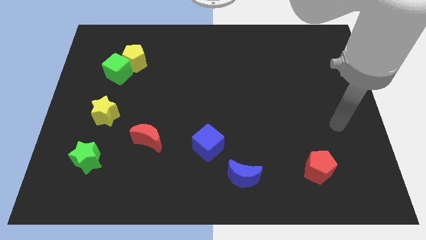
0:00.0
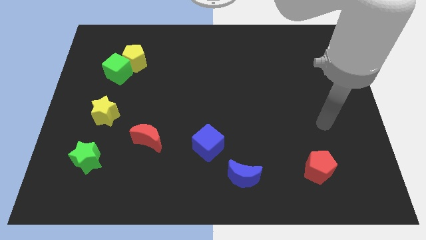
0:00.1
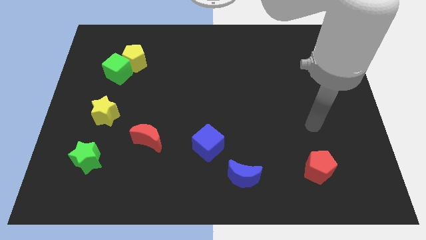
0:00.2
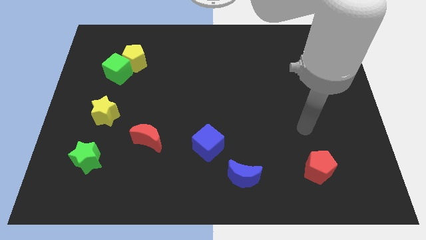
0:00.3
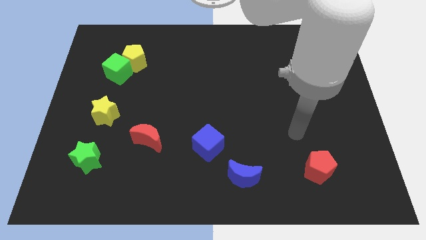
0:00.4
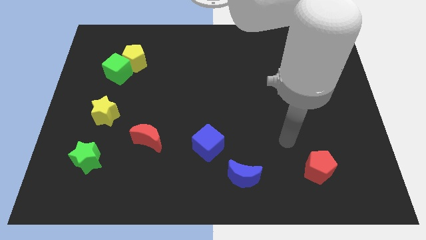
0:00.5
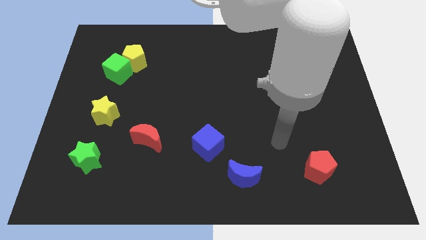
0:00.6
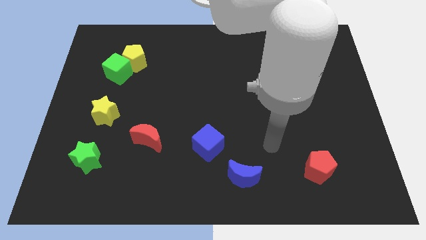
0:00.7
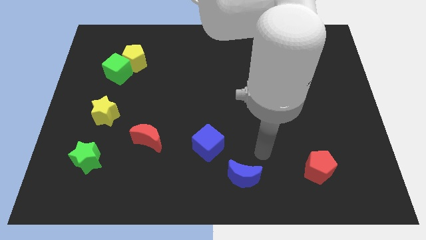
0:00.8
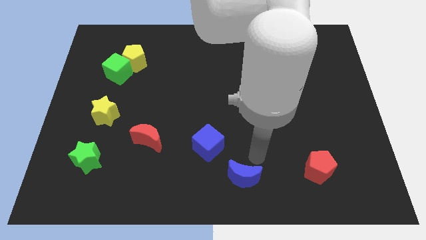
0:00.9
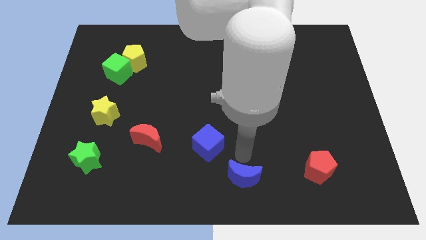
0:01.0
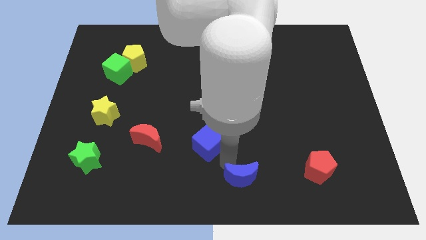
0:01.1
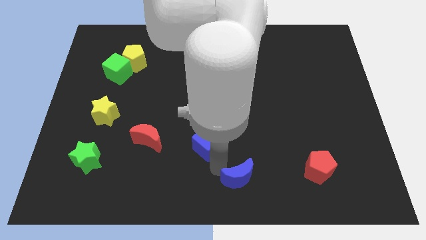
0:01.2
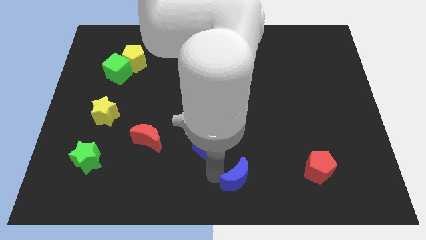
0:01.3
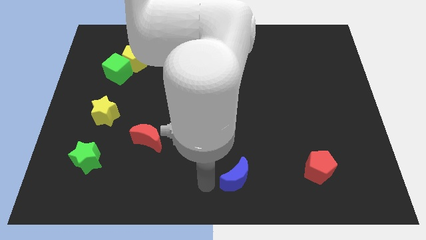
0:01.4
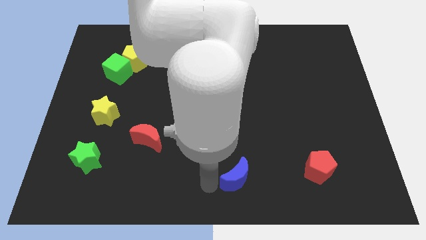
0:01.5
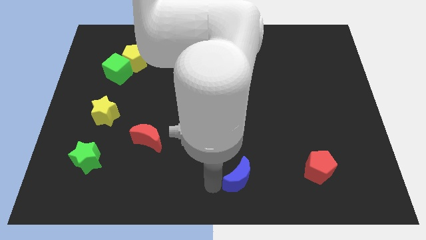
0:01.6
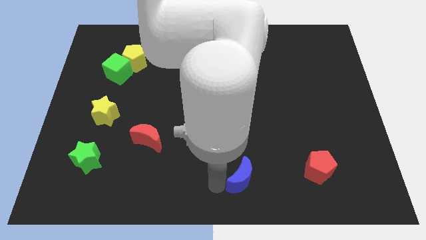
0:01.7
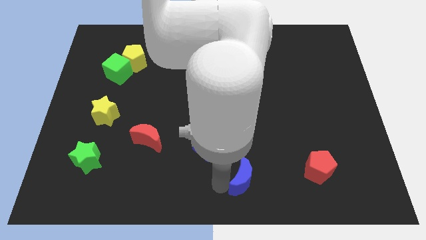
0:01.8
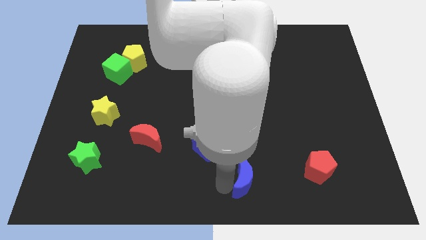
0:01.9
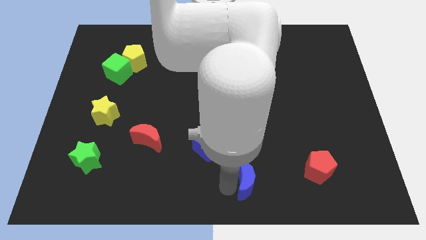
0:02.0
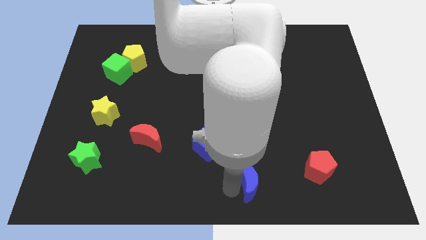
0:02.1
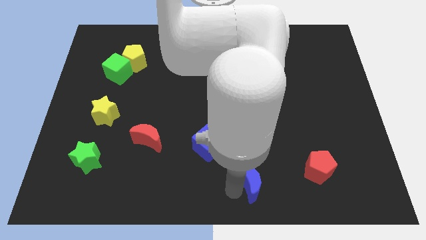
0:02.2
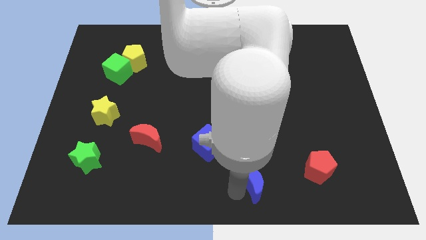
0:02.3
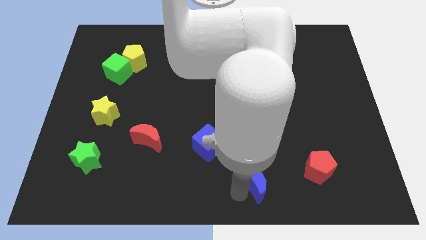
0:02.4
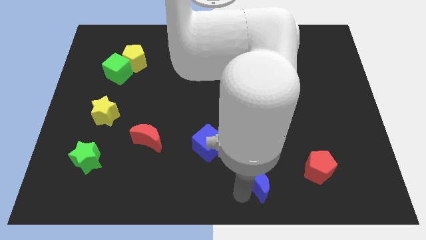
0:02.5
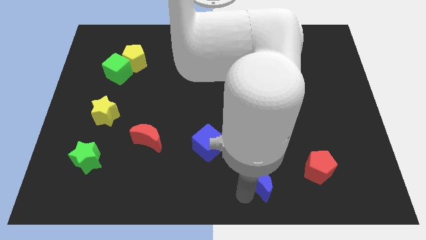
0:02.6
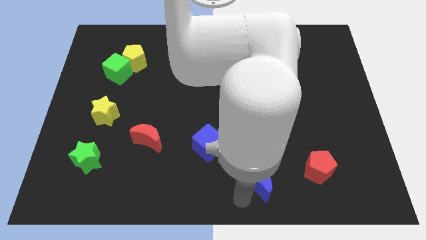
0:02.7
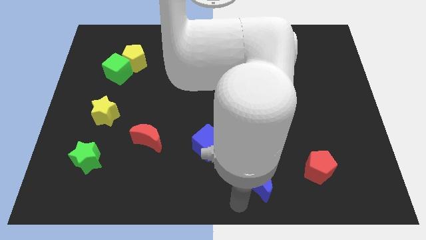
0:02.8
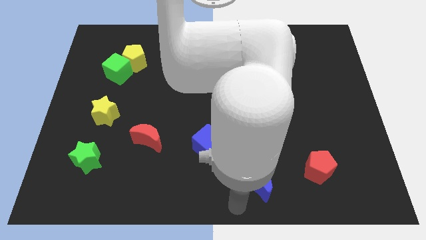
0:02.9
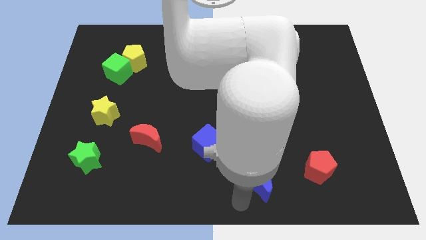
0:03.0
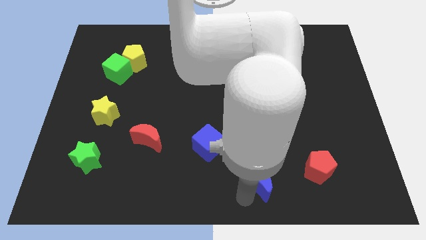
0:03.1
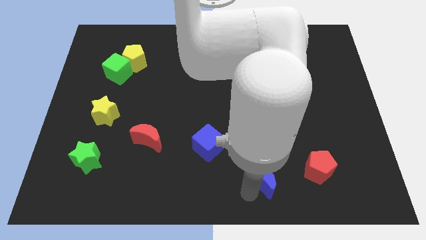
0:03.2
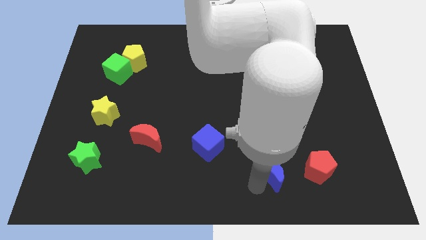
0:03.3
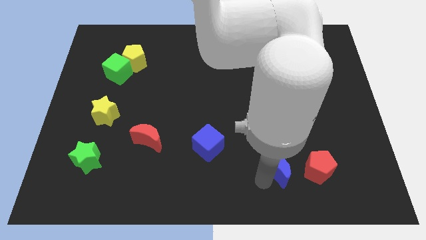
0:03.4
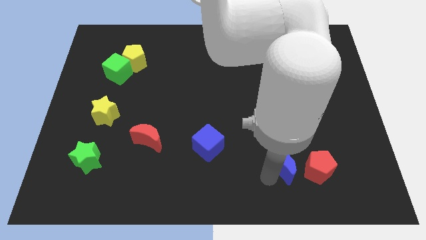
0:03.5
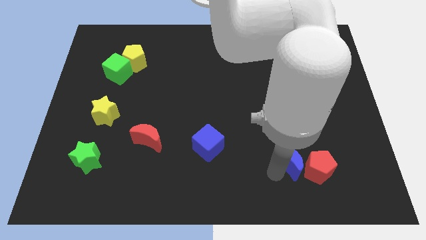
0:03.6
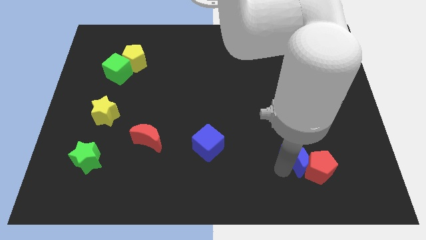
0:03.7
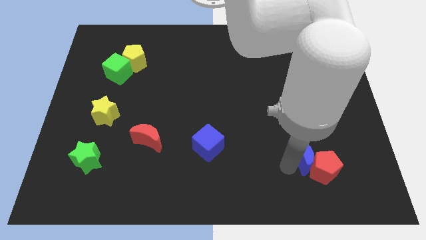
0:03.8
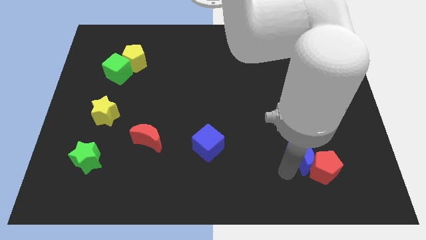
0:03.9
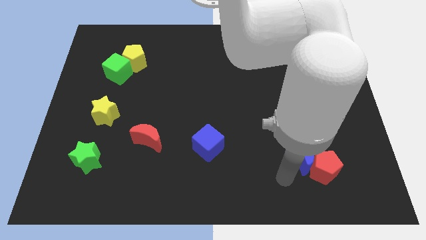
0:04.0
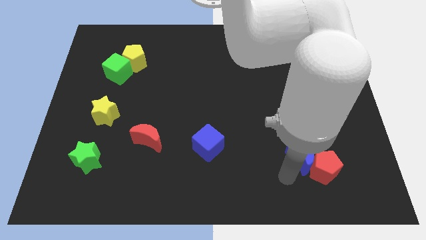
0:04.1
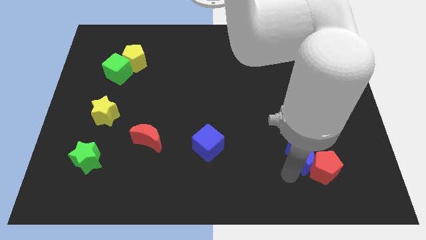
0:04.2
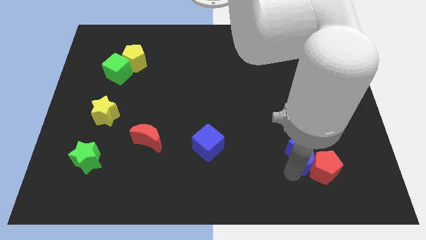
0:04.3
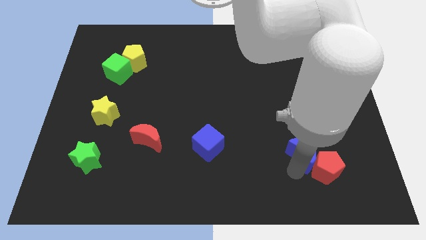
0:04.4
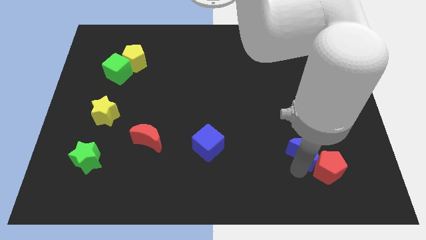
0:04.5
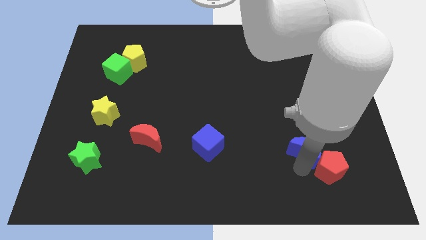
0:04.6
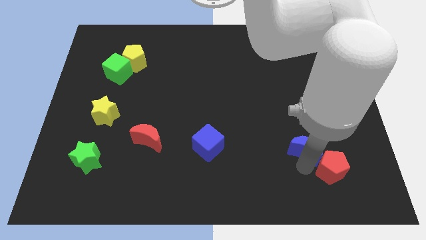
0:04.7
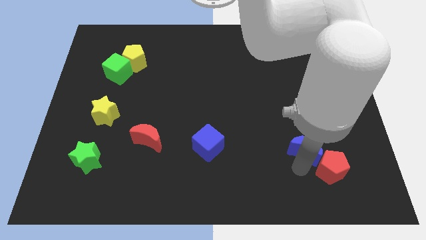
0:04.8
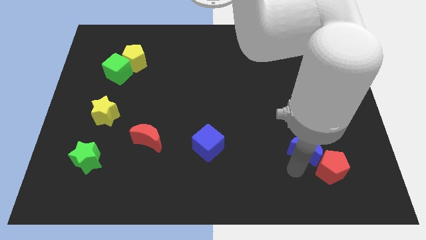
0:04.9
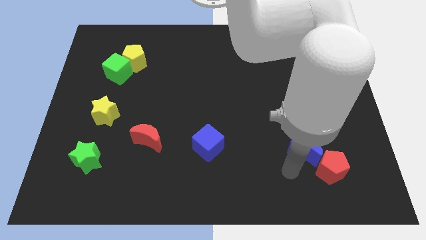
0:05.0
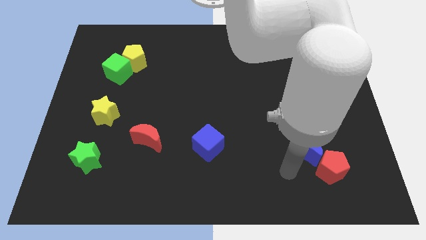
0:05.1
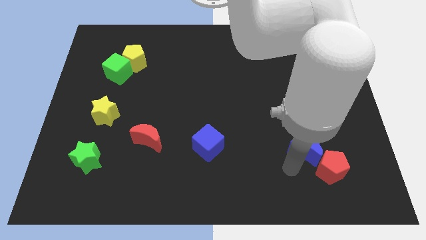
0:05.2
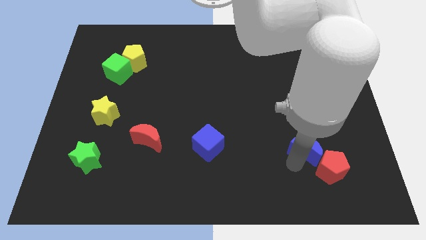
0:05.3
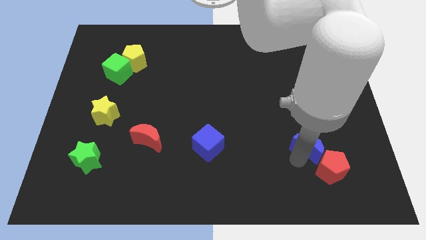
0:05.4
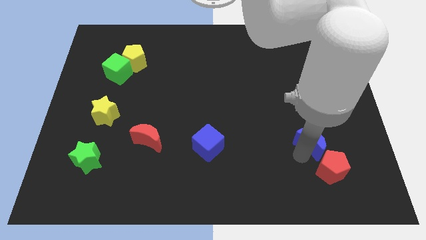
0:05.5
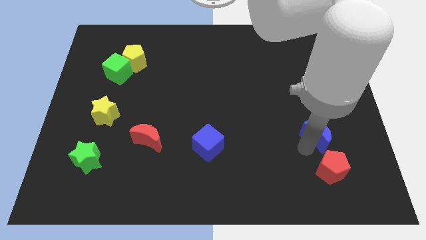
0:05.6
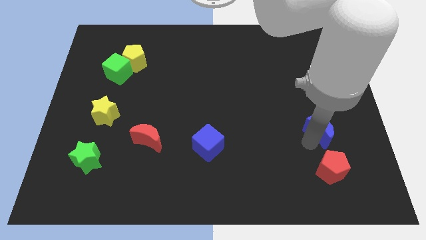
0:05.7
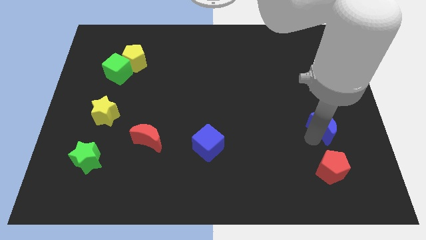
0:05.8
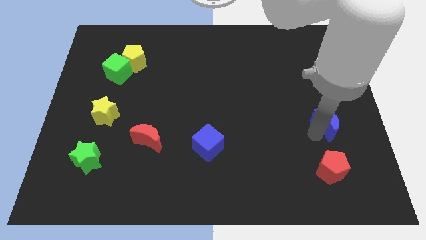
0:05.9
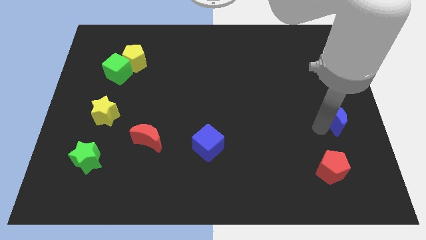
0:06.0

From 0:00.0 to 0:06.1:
push the blue moon to the right side of the board
